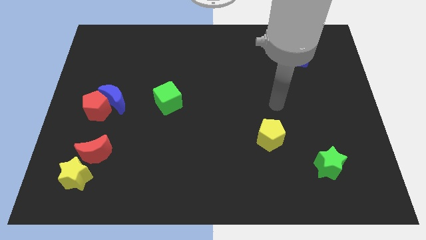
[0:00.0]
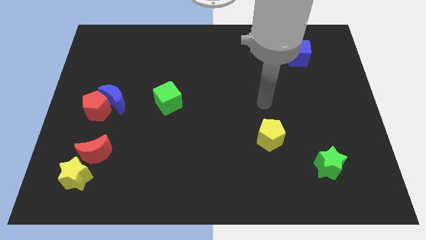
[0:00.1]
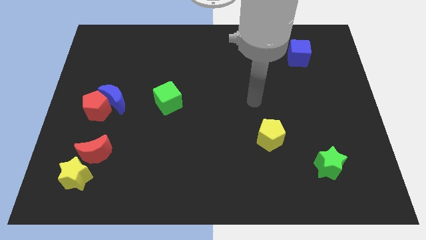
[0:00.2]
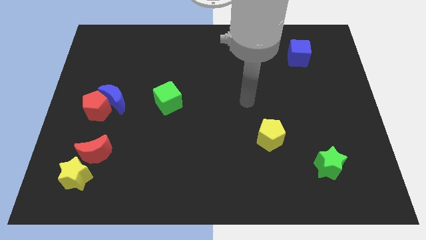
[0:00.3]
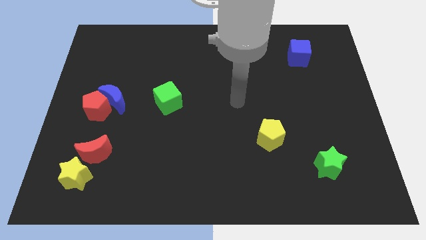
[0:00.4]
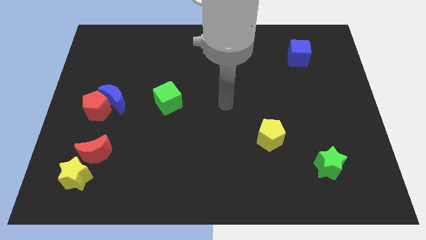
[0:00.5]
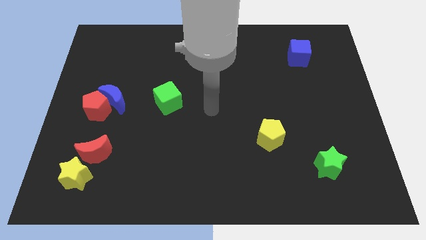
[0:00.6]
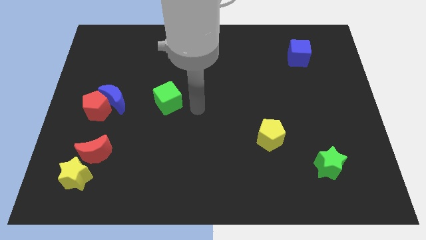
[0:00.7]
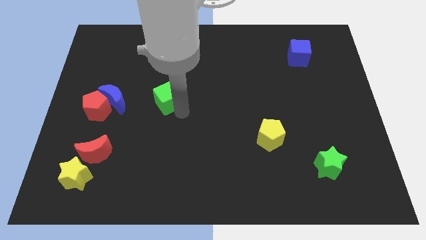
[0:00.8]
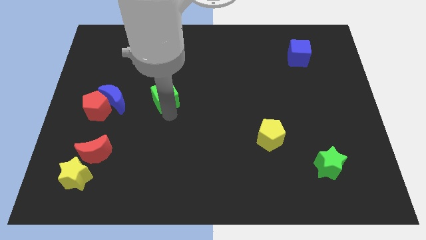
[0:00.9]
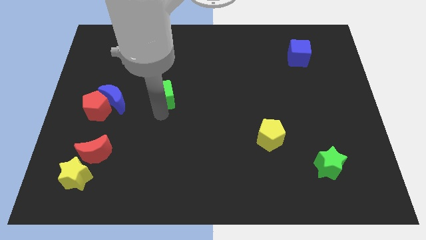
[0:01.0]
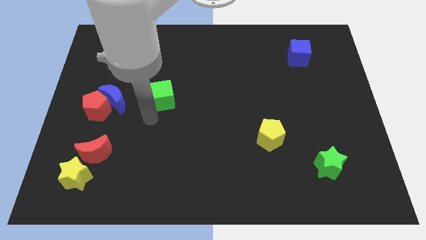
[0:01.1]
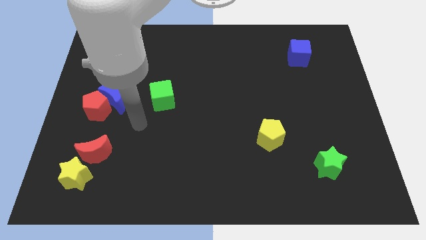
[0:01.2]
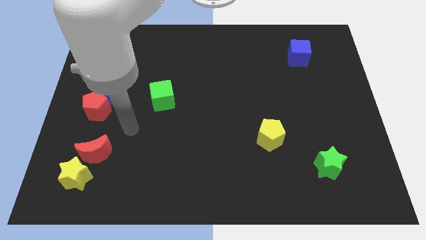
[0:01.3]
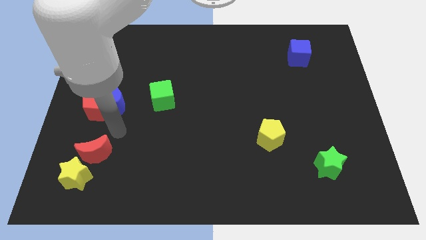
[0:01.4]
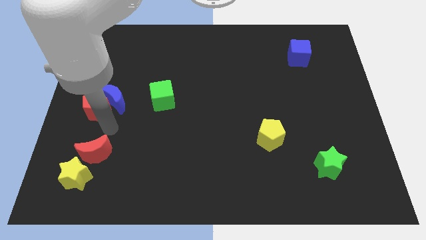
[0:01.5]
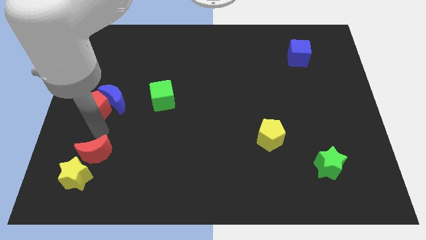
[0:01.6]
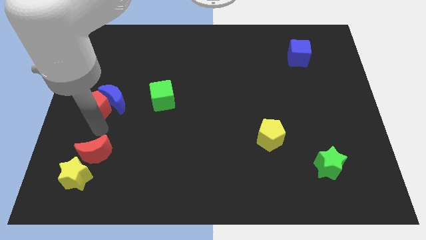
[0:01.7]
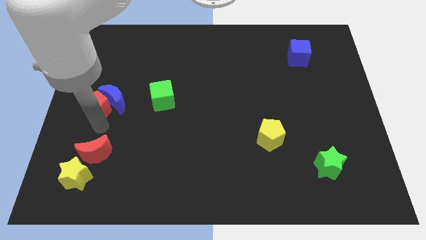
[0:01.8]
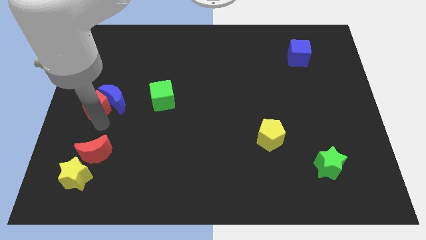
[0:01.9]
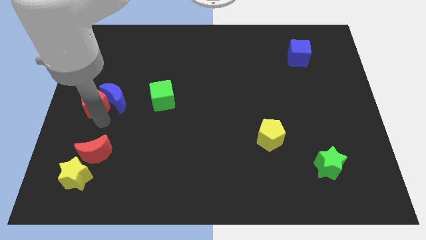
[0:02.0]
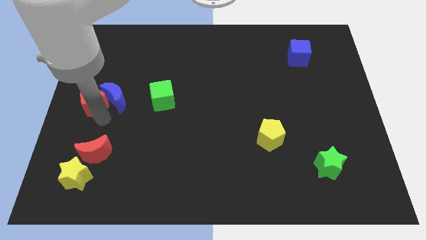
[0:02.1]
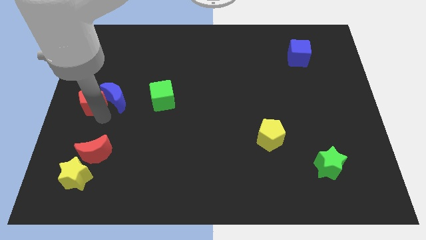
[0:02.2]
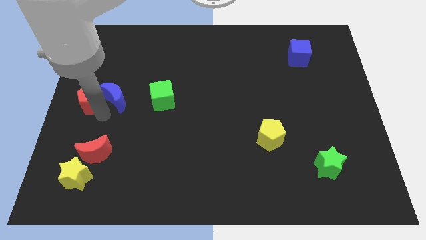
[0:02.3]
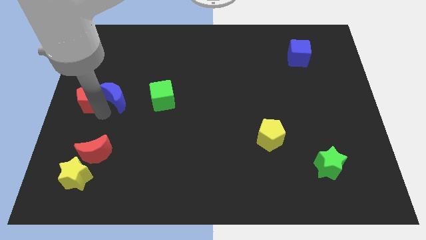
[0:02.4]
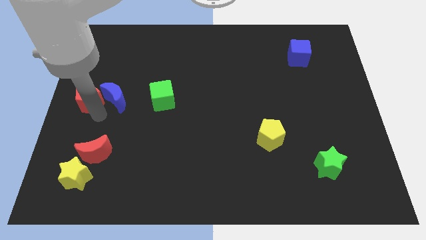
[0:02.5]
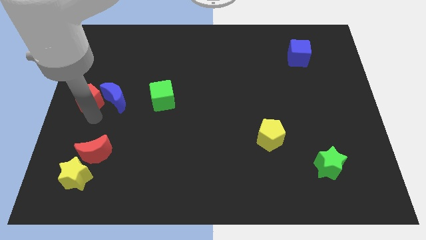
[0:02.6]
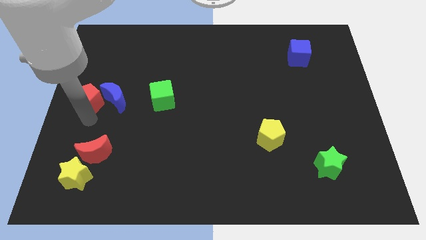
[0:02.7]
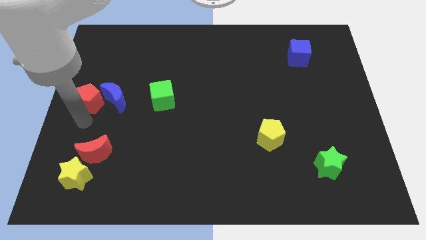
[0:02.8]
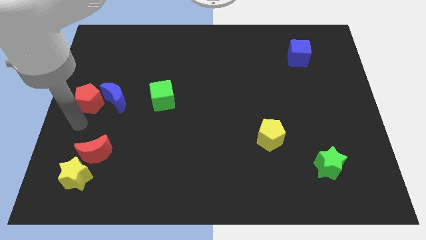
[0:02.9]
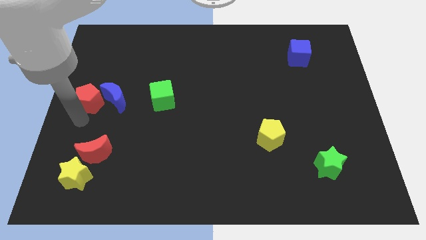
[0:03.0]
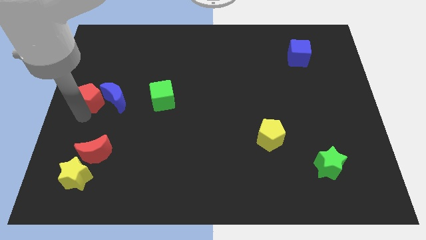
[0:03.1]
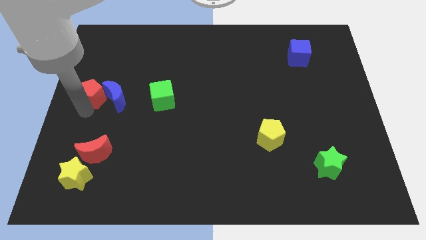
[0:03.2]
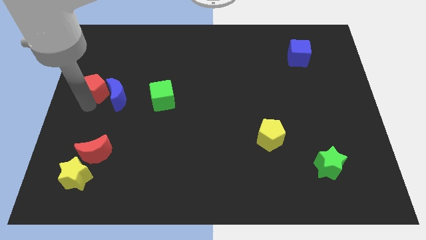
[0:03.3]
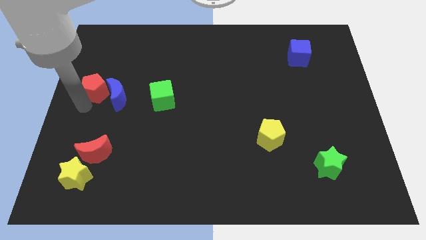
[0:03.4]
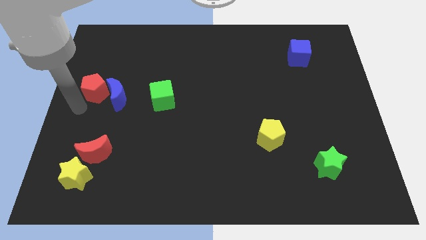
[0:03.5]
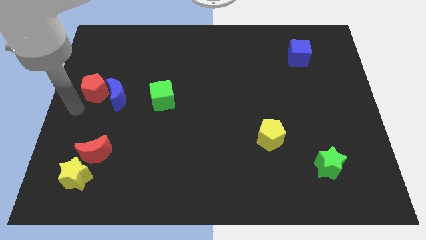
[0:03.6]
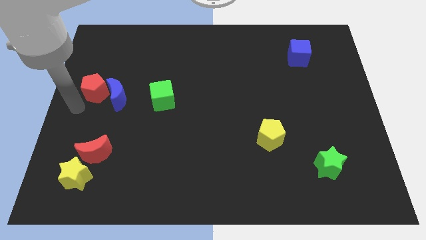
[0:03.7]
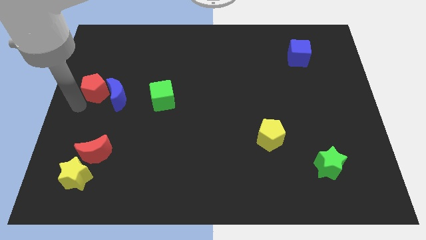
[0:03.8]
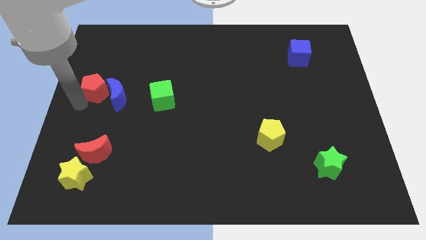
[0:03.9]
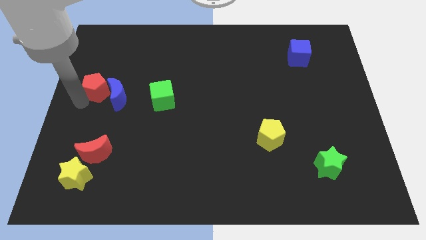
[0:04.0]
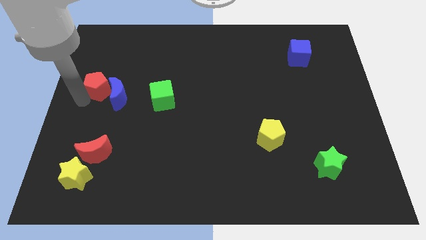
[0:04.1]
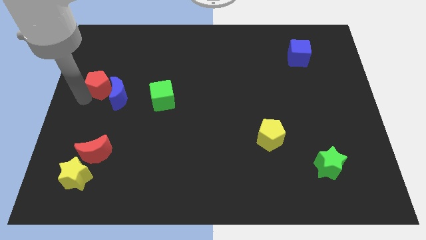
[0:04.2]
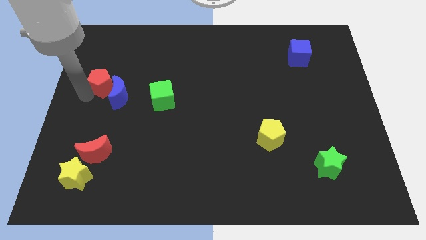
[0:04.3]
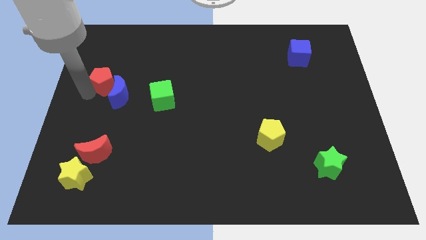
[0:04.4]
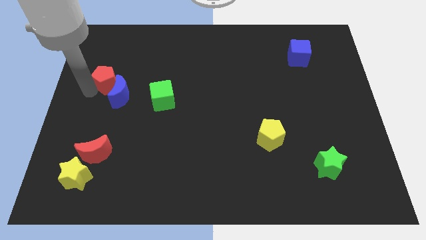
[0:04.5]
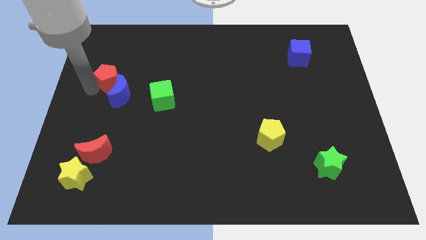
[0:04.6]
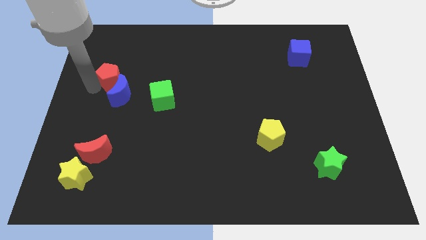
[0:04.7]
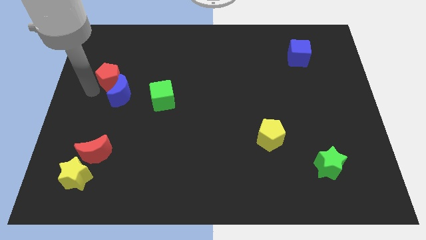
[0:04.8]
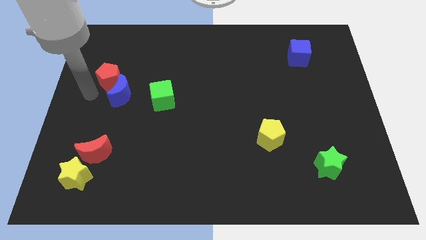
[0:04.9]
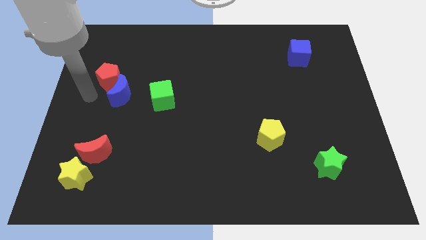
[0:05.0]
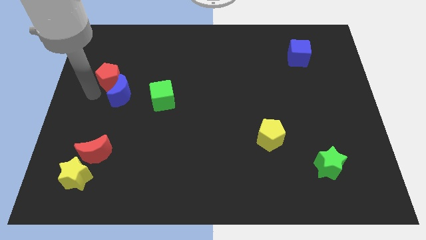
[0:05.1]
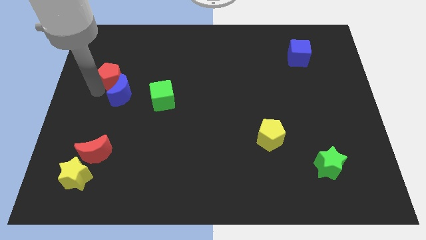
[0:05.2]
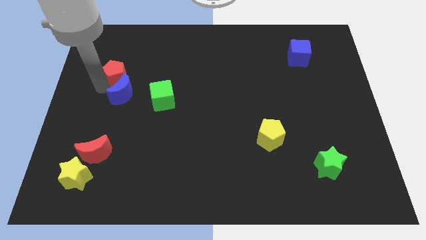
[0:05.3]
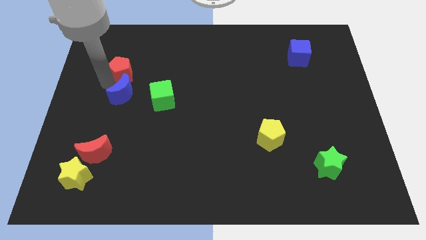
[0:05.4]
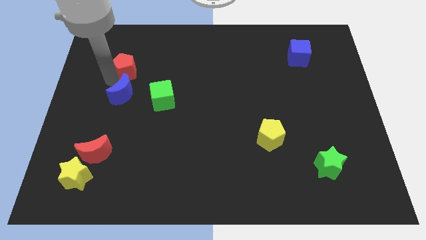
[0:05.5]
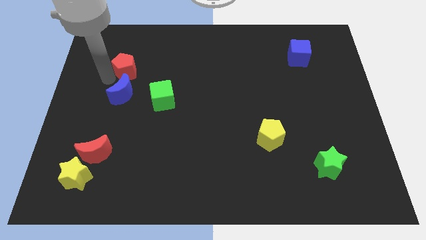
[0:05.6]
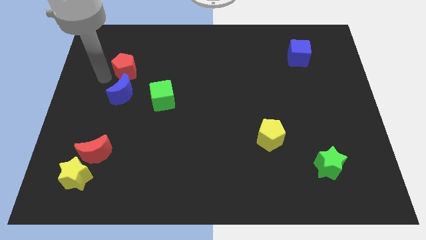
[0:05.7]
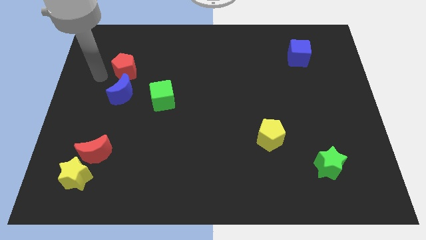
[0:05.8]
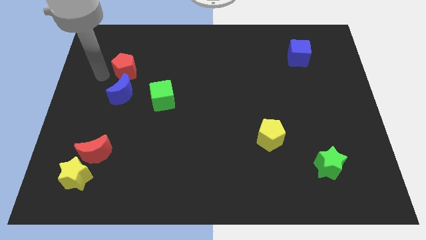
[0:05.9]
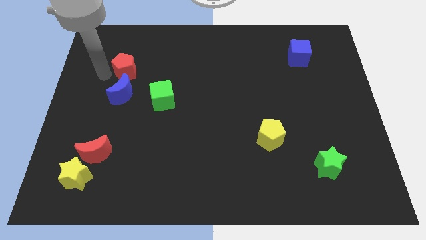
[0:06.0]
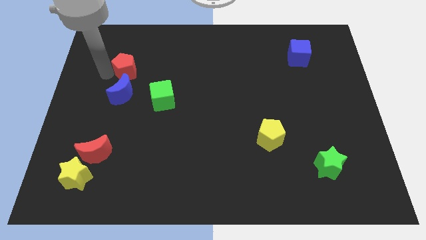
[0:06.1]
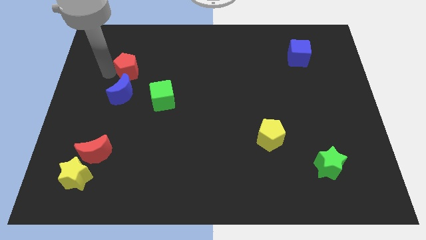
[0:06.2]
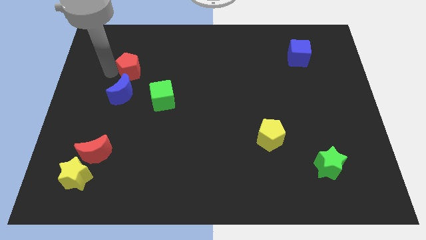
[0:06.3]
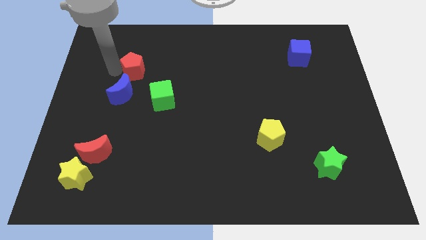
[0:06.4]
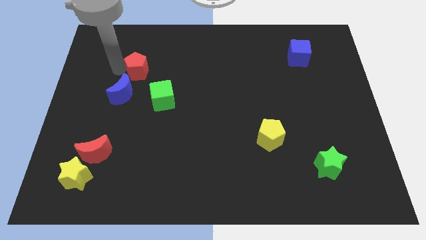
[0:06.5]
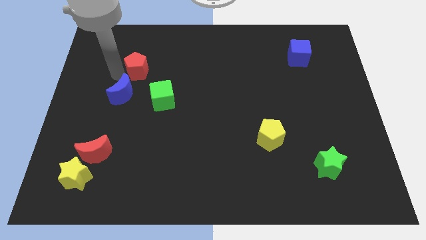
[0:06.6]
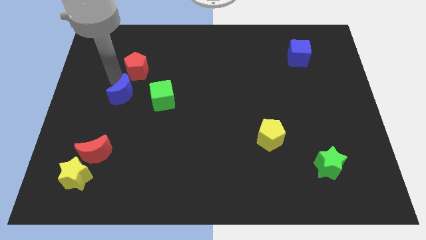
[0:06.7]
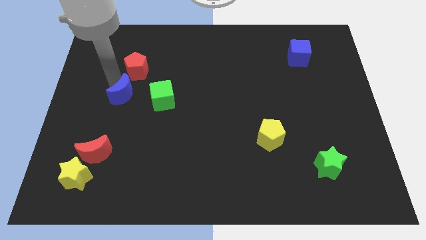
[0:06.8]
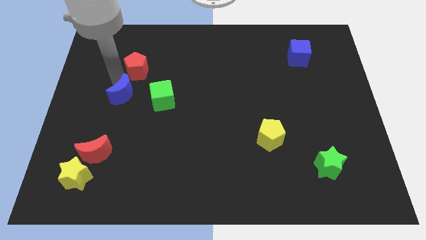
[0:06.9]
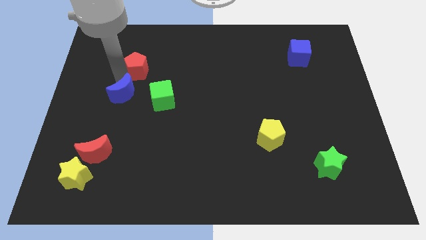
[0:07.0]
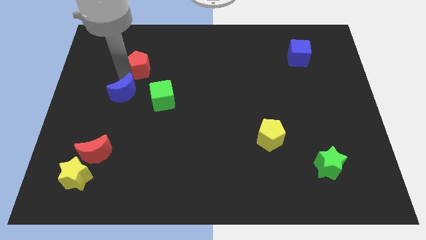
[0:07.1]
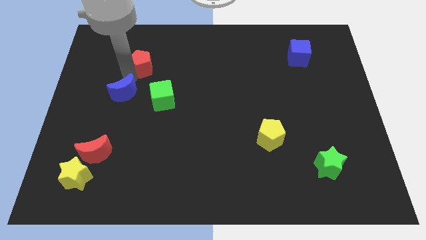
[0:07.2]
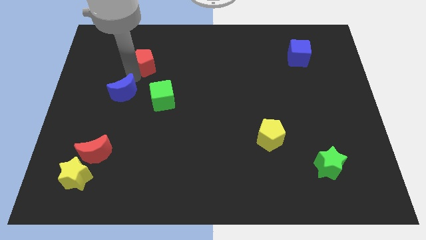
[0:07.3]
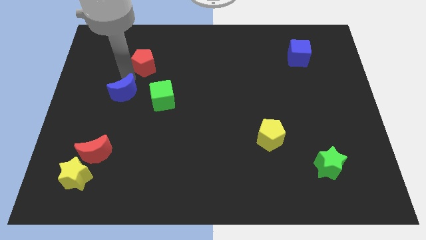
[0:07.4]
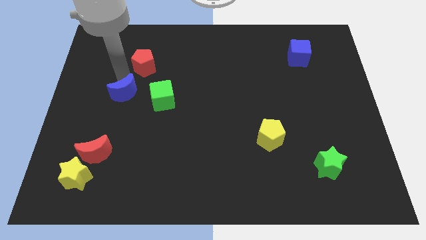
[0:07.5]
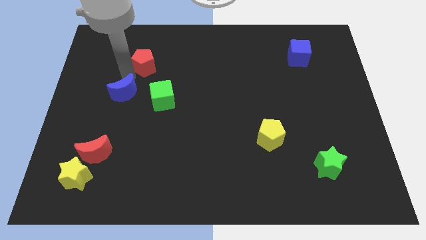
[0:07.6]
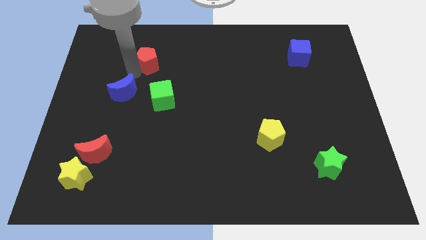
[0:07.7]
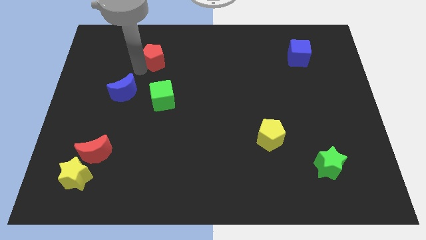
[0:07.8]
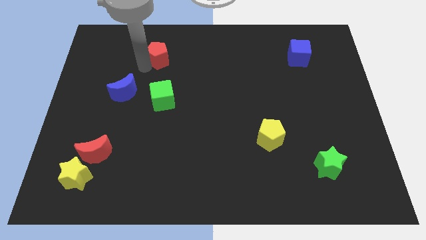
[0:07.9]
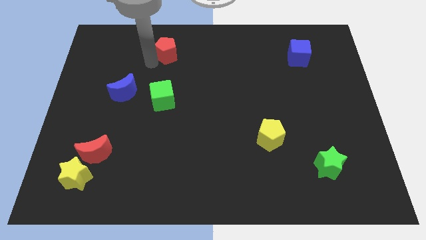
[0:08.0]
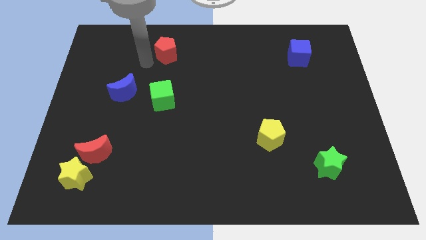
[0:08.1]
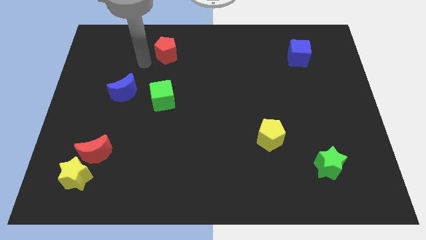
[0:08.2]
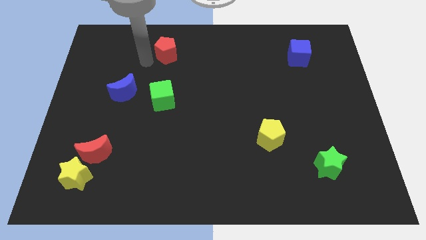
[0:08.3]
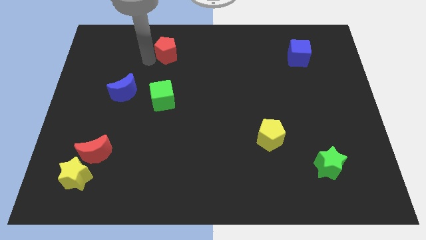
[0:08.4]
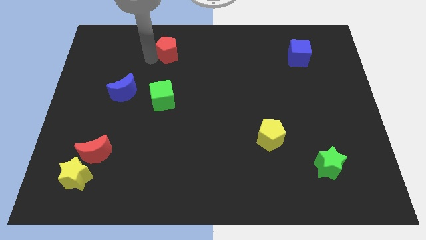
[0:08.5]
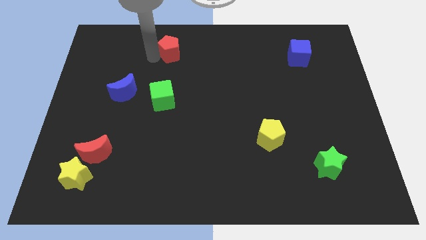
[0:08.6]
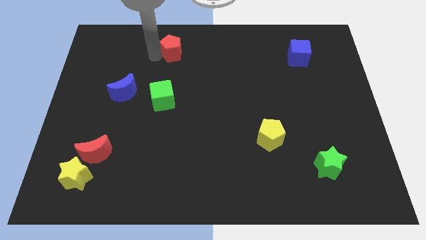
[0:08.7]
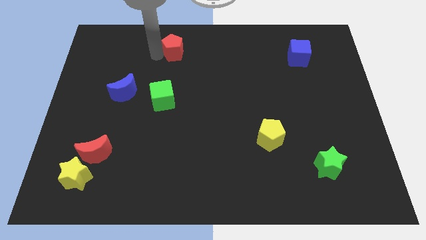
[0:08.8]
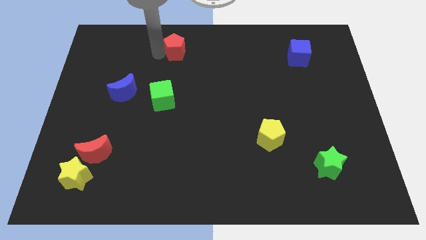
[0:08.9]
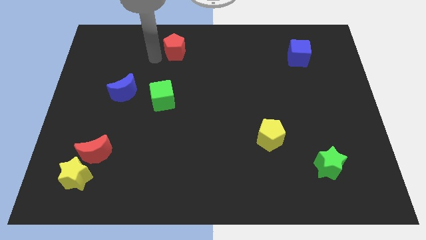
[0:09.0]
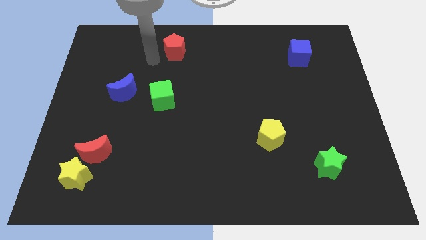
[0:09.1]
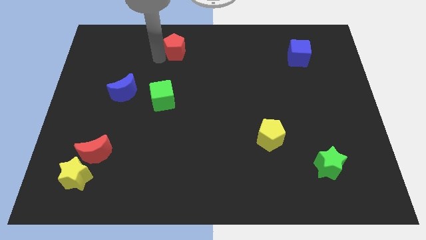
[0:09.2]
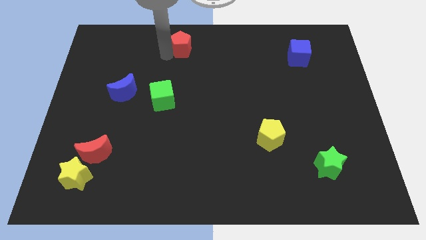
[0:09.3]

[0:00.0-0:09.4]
slide the red pentagon to the top
